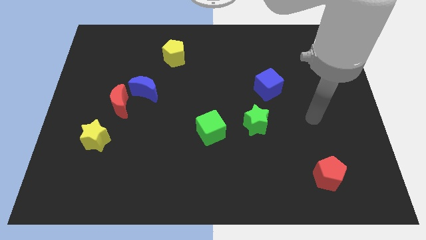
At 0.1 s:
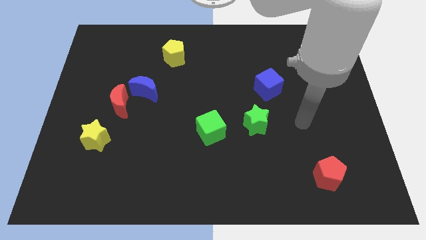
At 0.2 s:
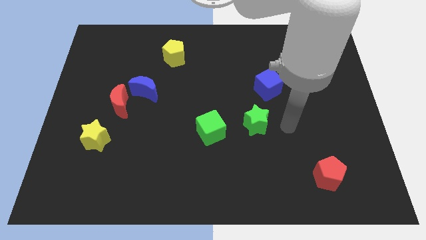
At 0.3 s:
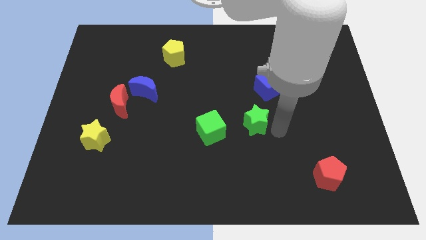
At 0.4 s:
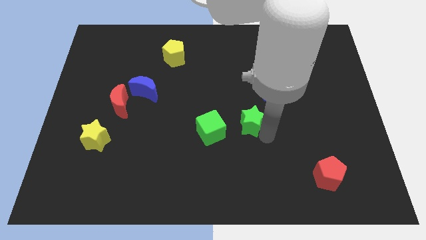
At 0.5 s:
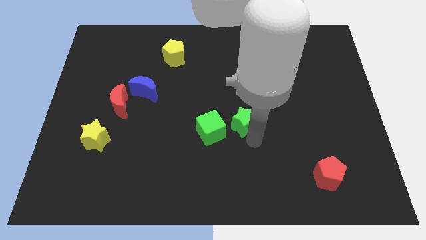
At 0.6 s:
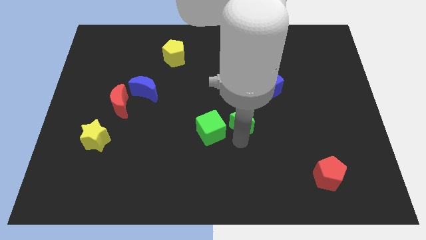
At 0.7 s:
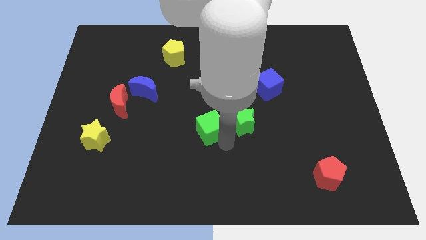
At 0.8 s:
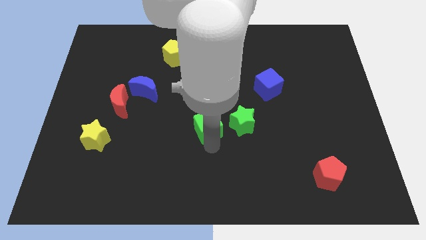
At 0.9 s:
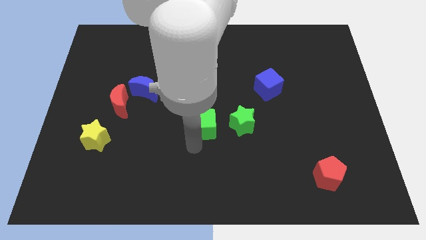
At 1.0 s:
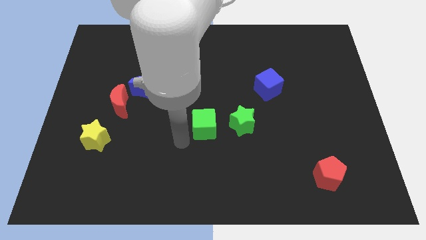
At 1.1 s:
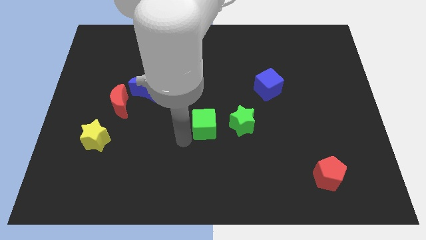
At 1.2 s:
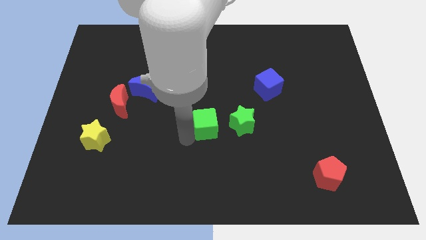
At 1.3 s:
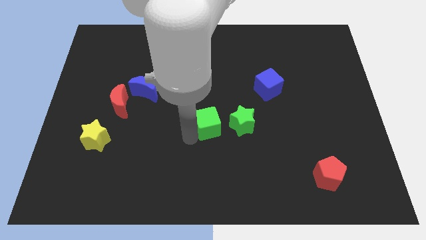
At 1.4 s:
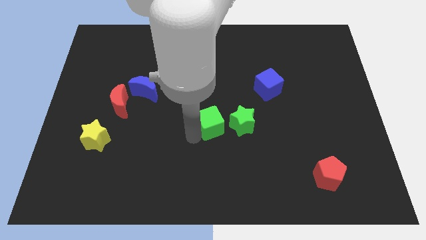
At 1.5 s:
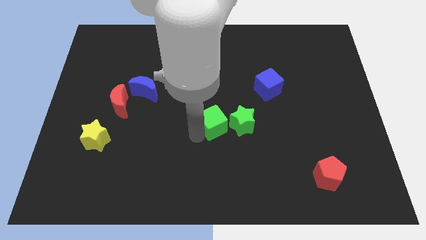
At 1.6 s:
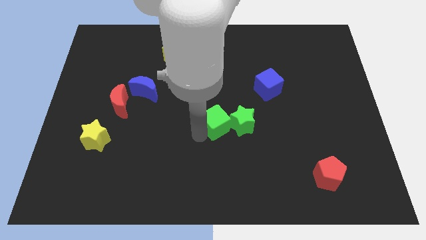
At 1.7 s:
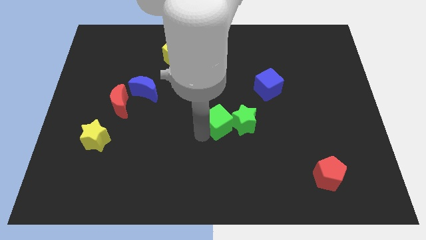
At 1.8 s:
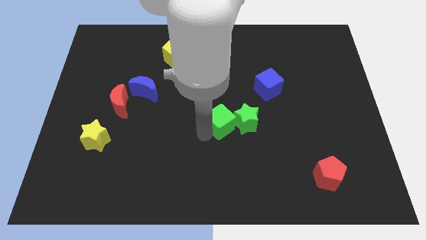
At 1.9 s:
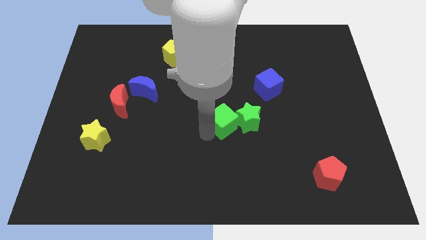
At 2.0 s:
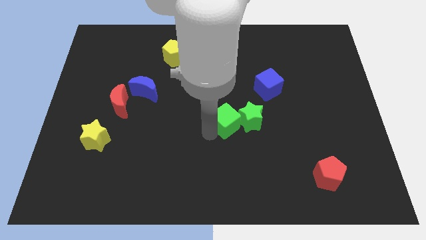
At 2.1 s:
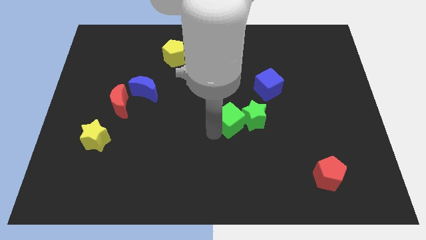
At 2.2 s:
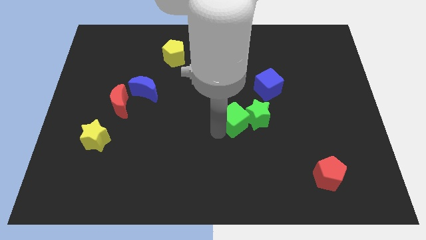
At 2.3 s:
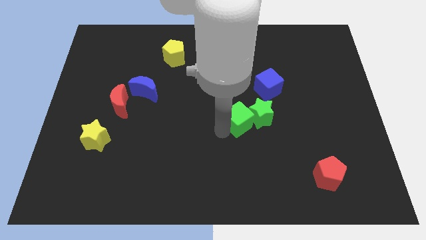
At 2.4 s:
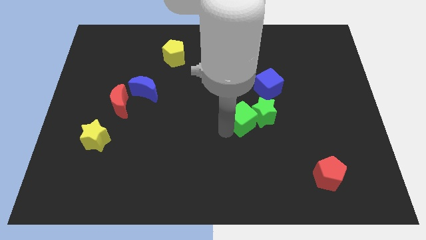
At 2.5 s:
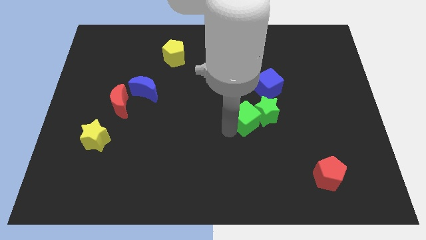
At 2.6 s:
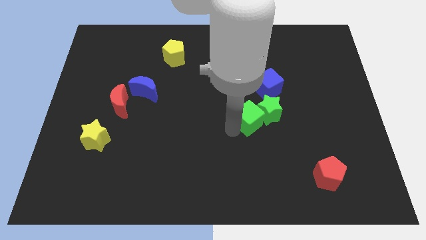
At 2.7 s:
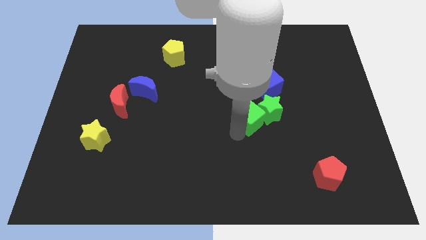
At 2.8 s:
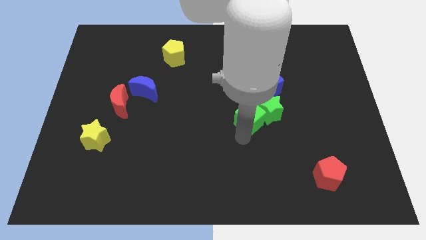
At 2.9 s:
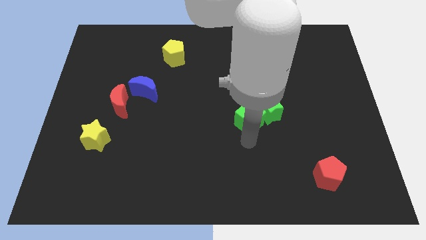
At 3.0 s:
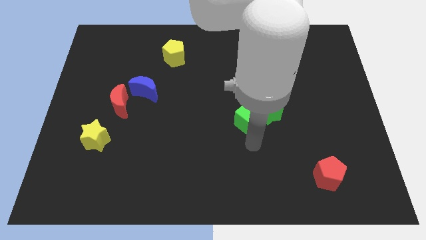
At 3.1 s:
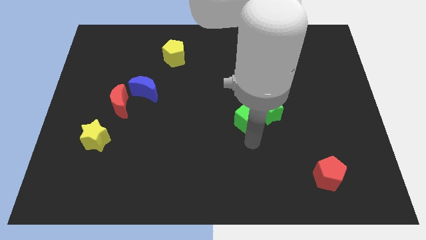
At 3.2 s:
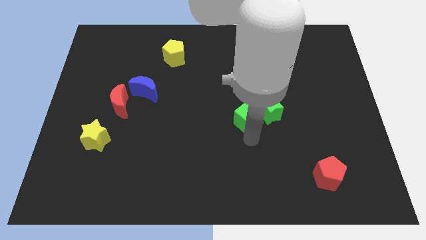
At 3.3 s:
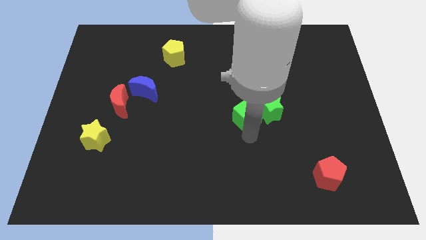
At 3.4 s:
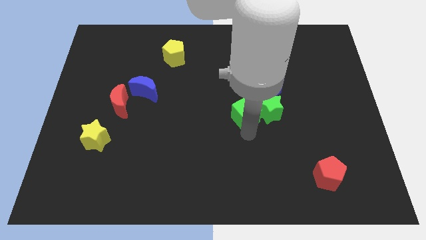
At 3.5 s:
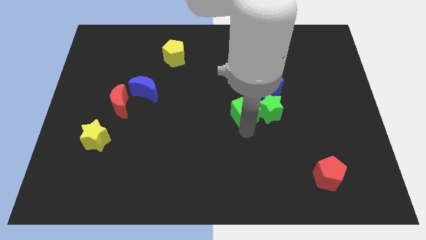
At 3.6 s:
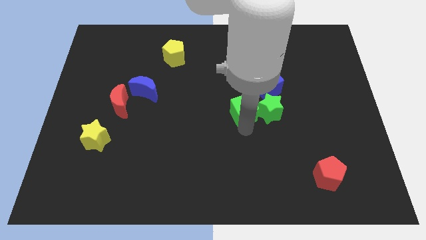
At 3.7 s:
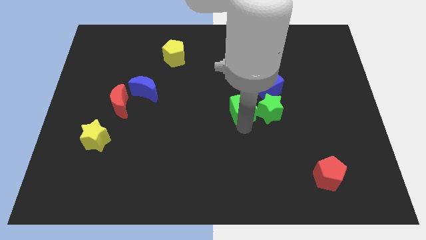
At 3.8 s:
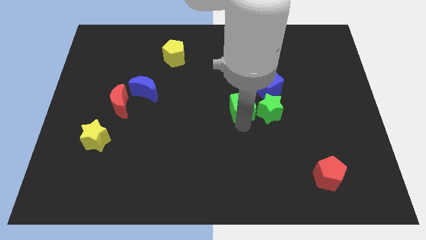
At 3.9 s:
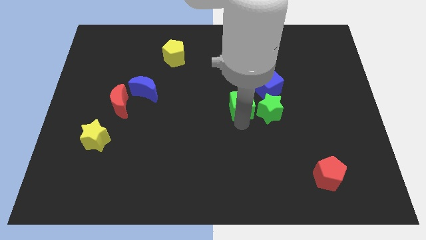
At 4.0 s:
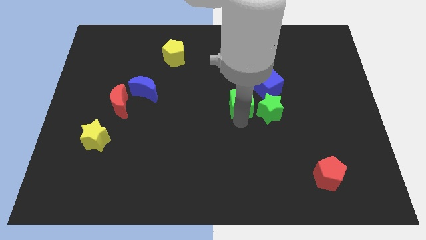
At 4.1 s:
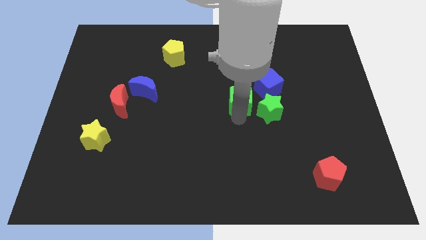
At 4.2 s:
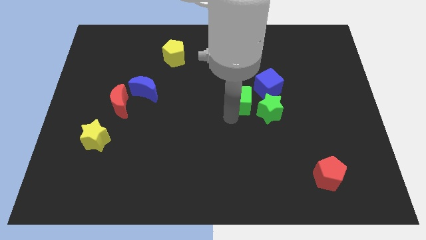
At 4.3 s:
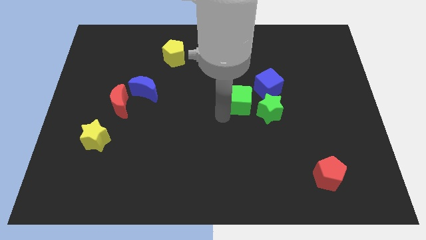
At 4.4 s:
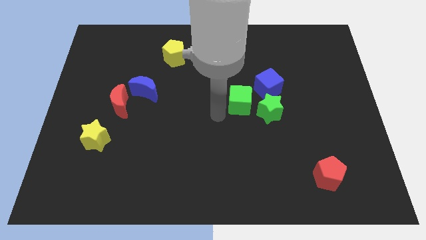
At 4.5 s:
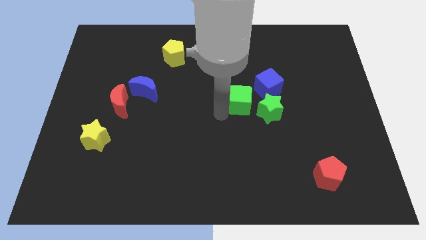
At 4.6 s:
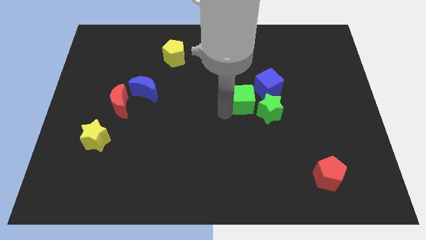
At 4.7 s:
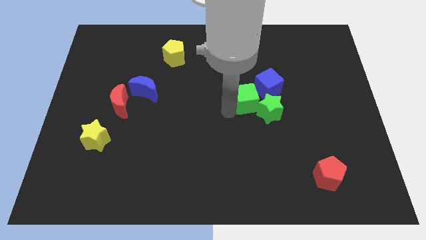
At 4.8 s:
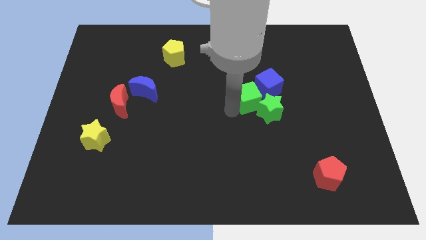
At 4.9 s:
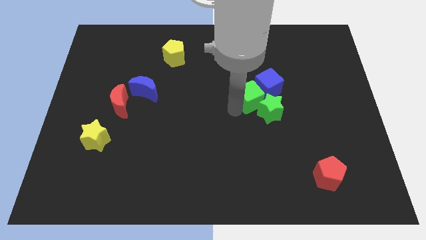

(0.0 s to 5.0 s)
move the green cube to the blue cube
